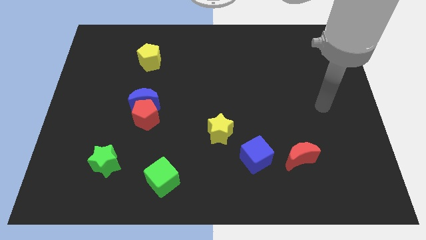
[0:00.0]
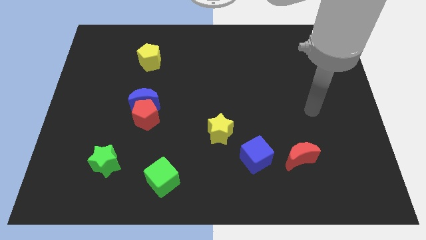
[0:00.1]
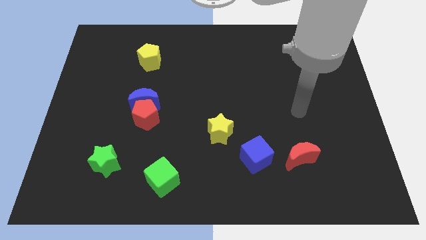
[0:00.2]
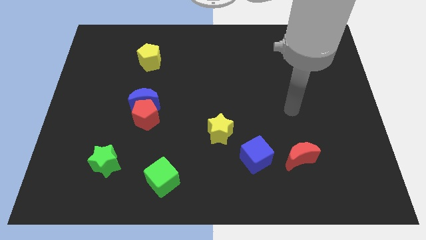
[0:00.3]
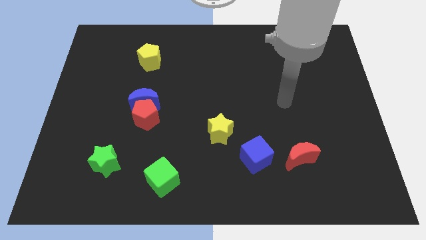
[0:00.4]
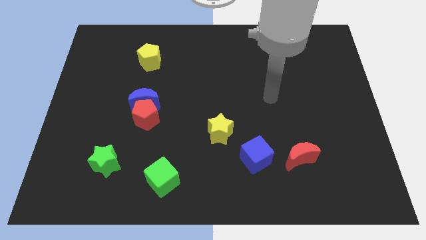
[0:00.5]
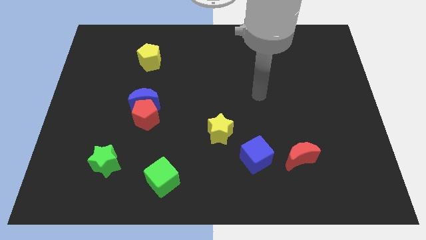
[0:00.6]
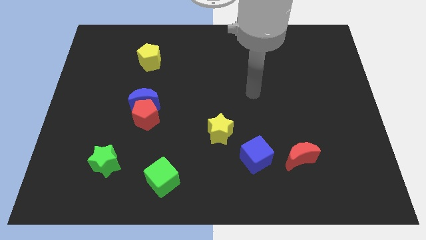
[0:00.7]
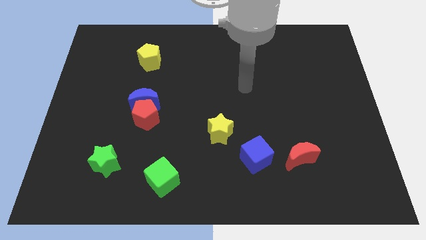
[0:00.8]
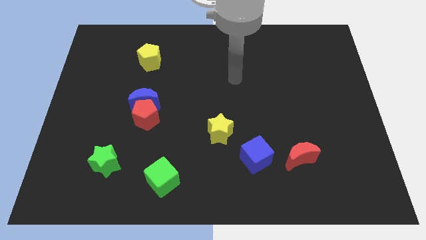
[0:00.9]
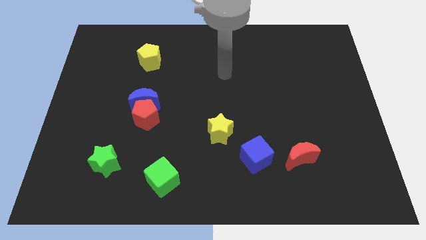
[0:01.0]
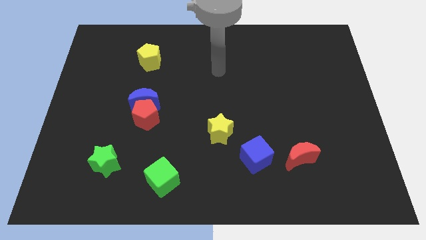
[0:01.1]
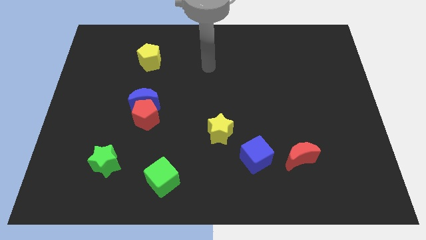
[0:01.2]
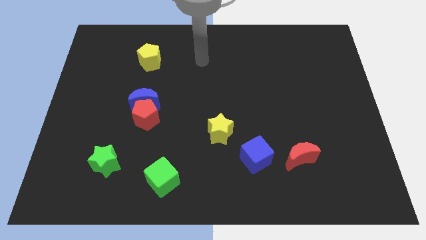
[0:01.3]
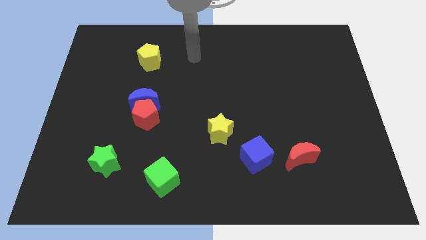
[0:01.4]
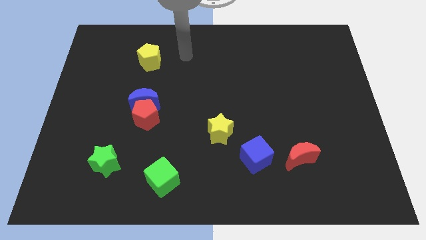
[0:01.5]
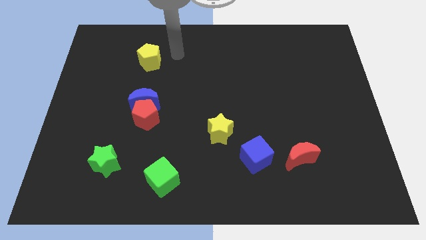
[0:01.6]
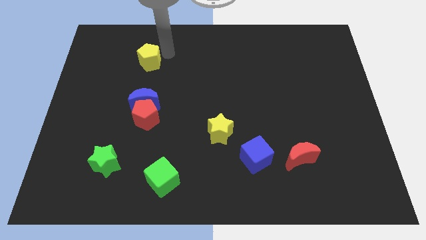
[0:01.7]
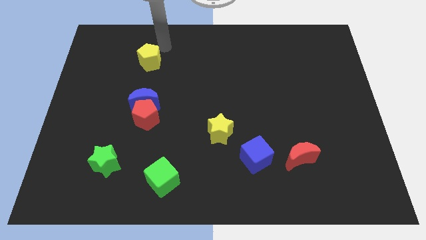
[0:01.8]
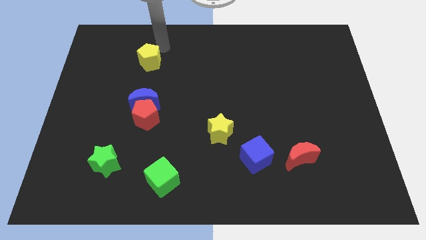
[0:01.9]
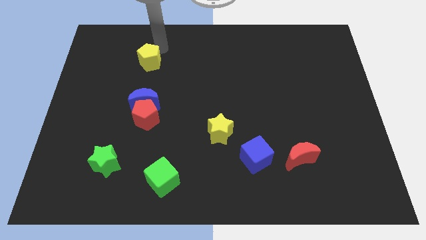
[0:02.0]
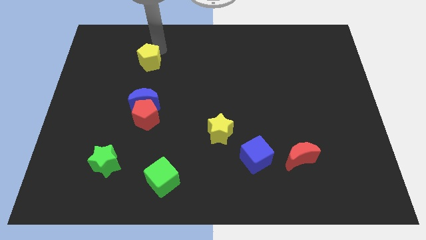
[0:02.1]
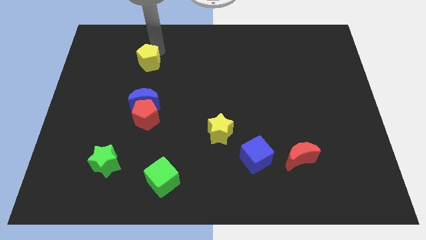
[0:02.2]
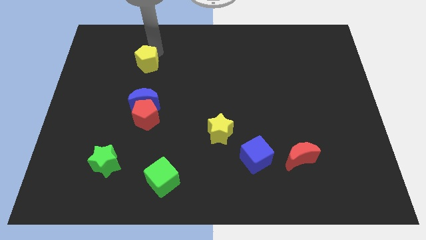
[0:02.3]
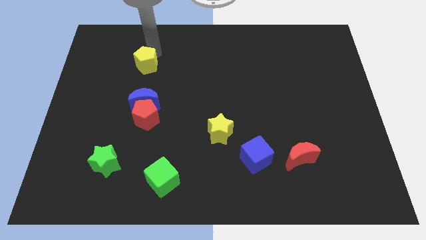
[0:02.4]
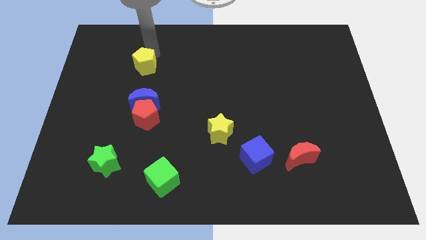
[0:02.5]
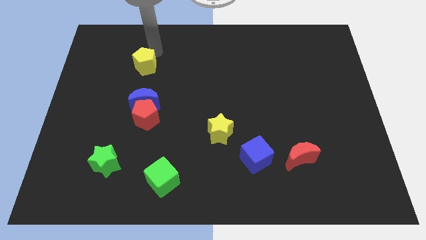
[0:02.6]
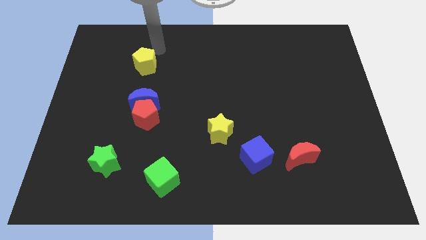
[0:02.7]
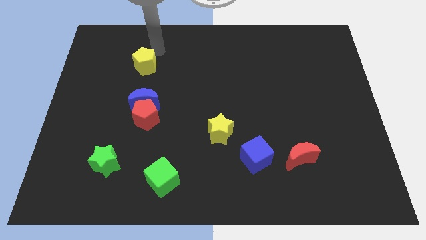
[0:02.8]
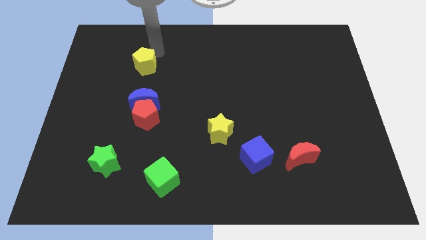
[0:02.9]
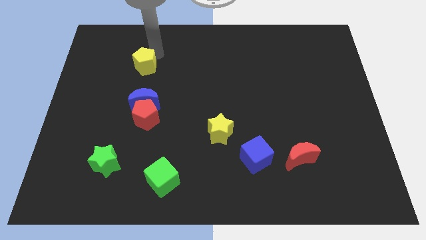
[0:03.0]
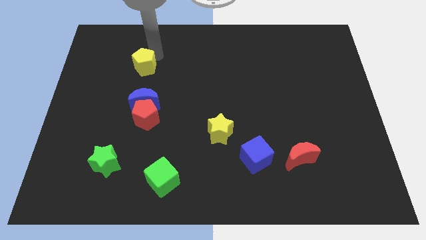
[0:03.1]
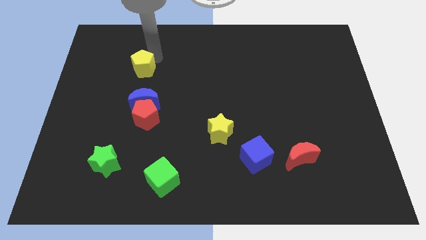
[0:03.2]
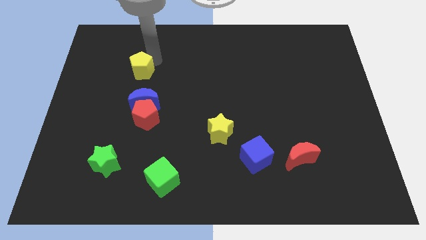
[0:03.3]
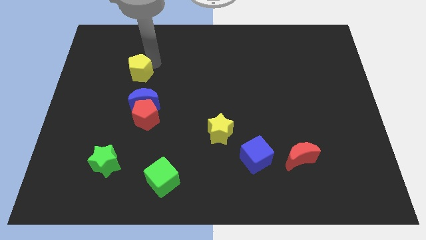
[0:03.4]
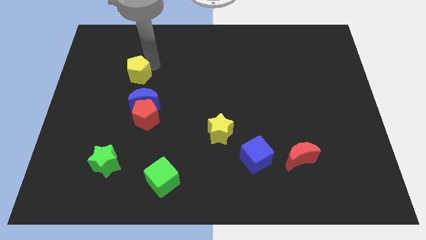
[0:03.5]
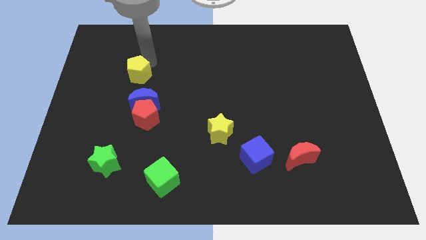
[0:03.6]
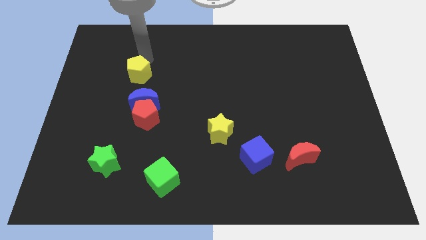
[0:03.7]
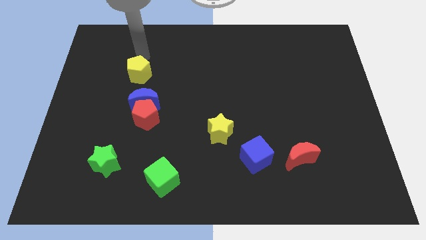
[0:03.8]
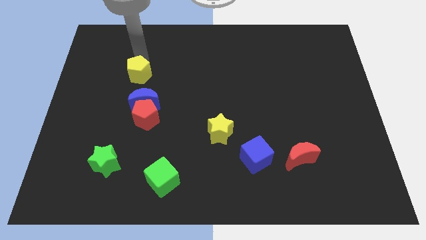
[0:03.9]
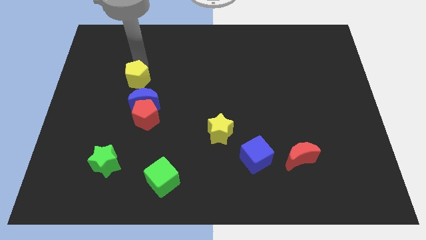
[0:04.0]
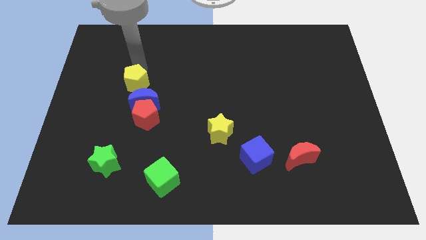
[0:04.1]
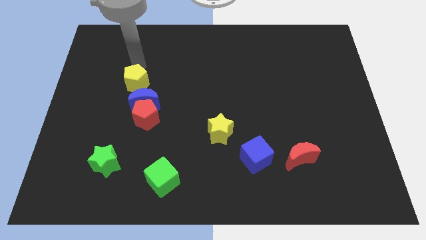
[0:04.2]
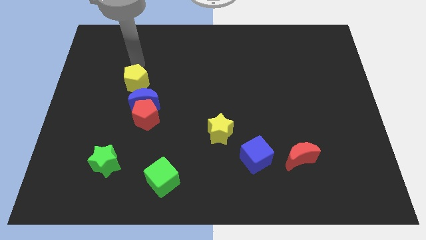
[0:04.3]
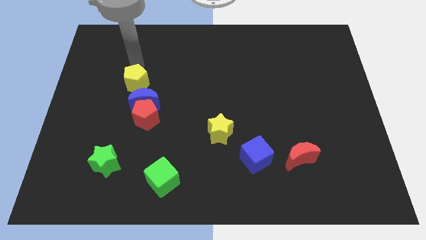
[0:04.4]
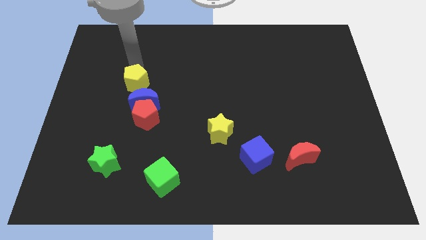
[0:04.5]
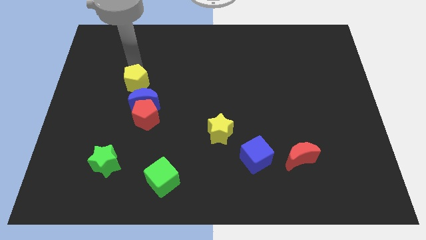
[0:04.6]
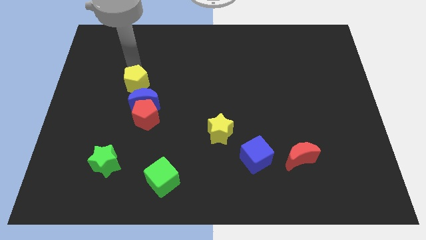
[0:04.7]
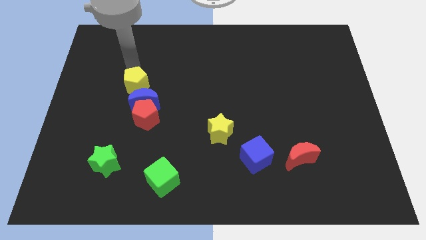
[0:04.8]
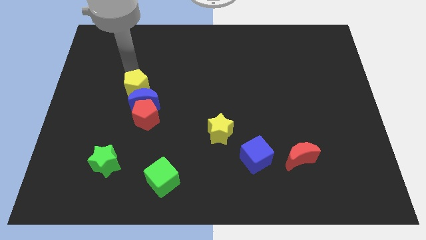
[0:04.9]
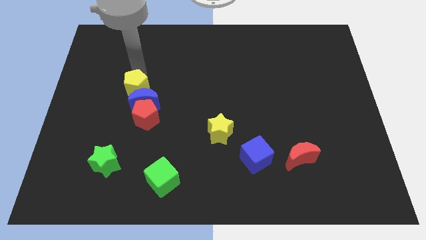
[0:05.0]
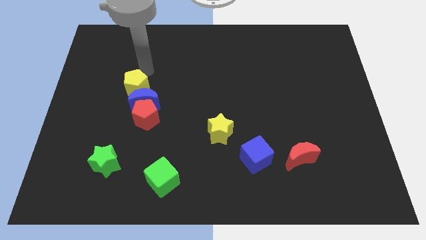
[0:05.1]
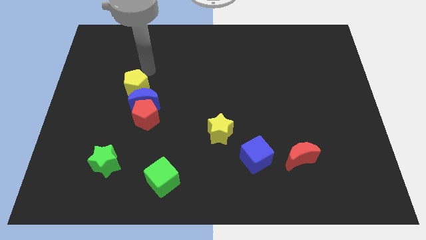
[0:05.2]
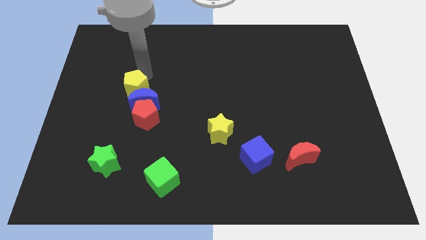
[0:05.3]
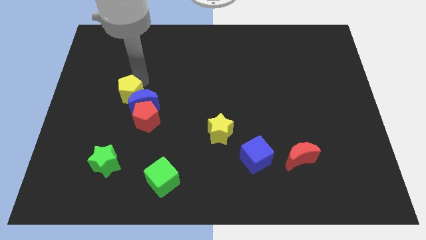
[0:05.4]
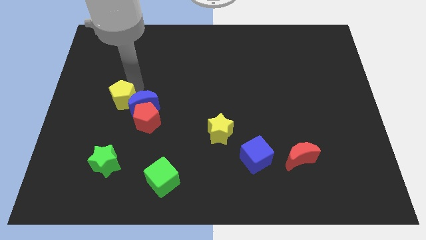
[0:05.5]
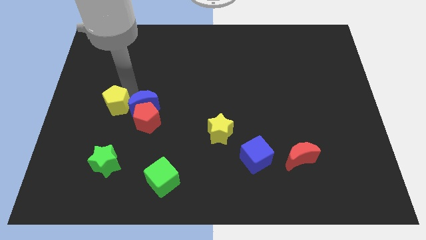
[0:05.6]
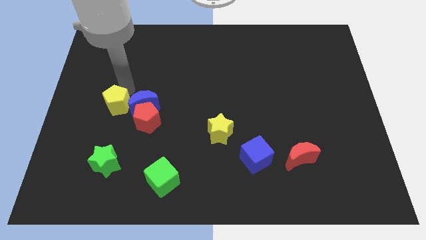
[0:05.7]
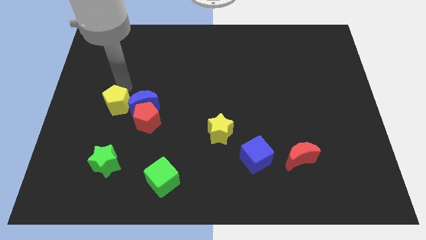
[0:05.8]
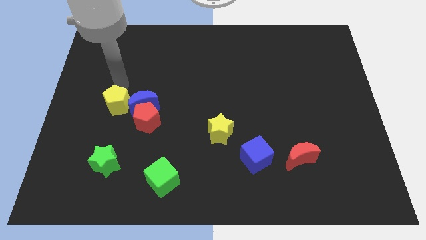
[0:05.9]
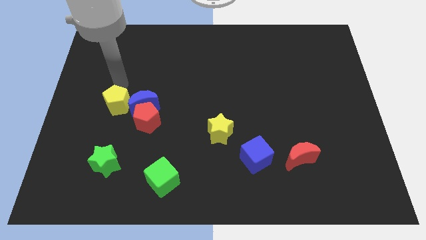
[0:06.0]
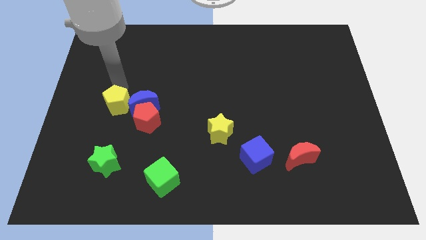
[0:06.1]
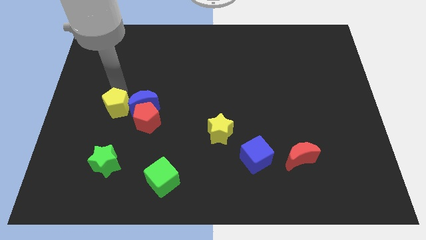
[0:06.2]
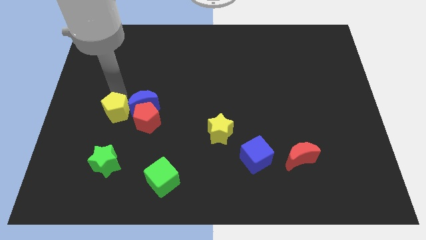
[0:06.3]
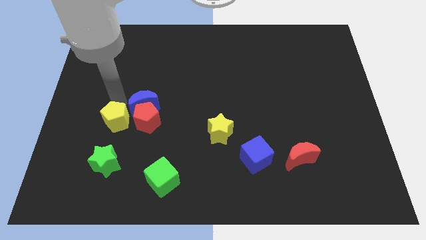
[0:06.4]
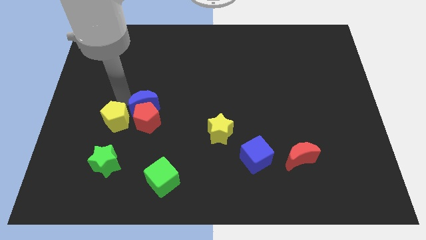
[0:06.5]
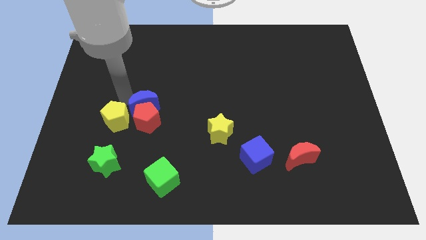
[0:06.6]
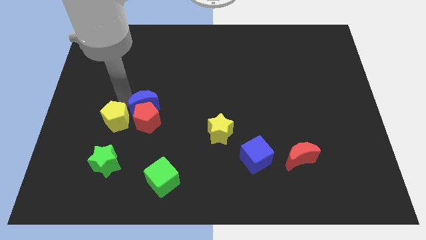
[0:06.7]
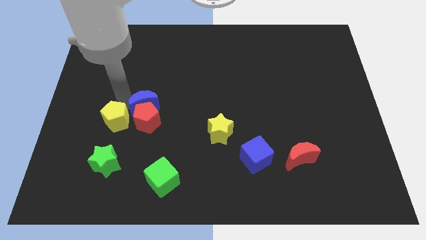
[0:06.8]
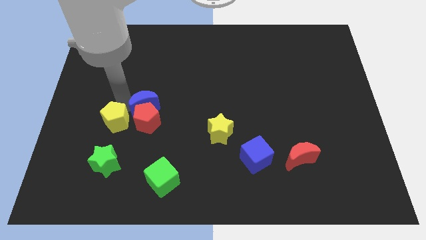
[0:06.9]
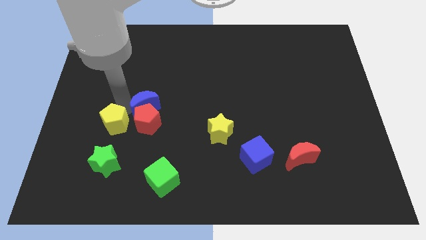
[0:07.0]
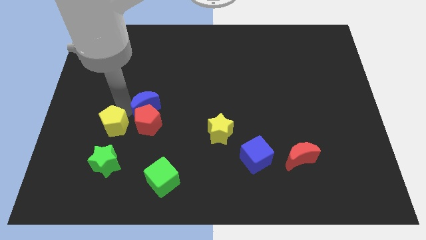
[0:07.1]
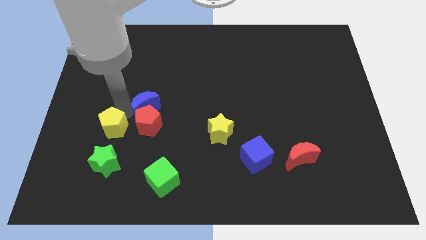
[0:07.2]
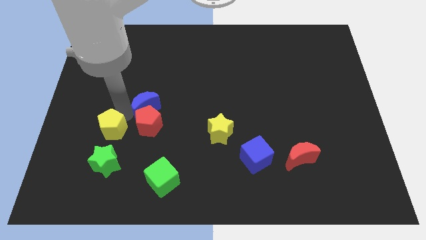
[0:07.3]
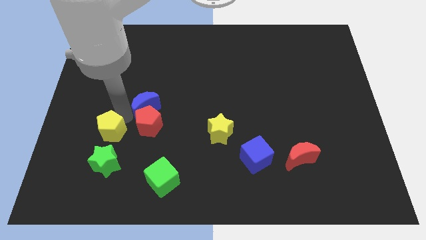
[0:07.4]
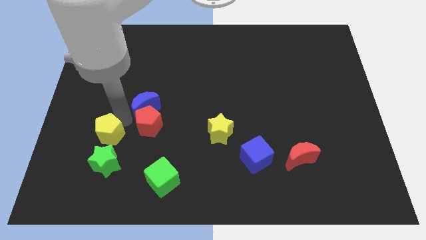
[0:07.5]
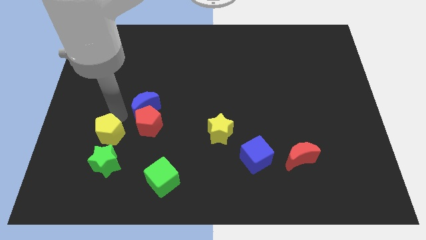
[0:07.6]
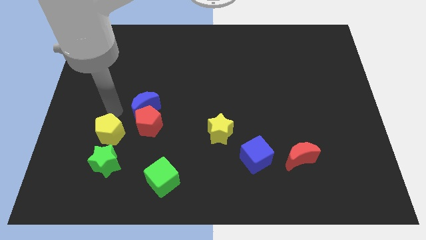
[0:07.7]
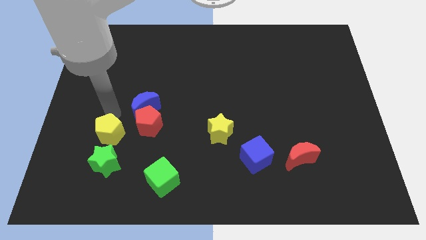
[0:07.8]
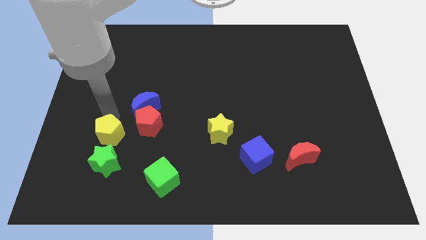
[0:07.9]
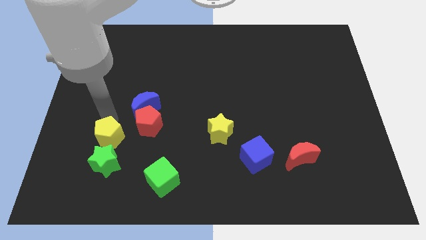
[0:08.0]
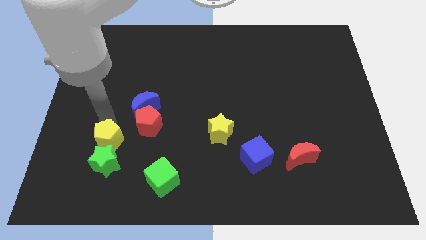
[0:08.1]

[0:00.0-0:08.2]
put the yellow pentagon towards the green star
